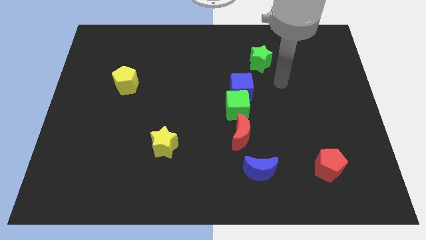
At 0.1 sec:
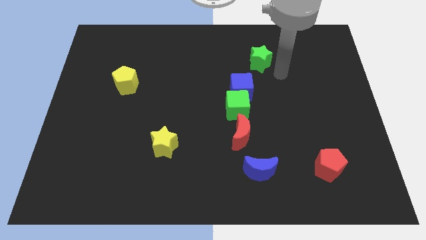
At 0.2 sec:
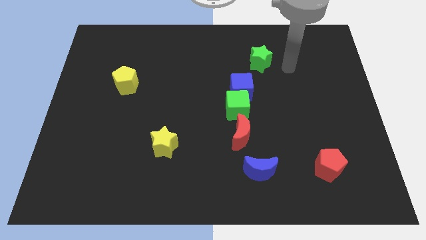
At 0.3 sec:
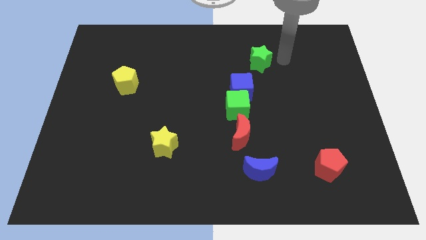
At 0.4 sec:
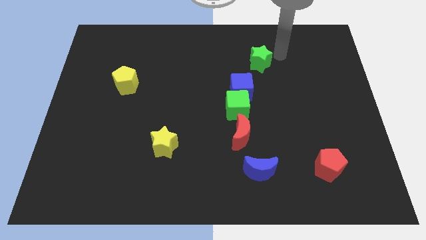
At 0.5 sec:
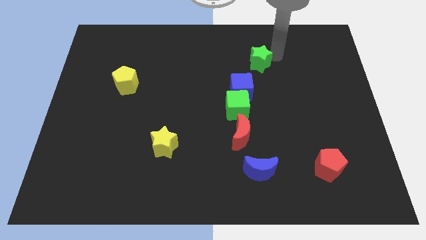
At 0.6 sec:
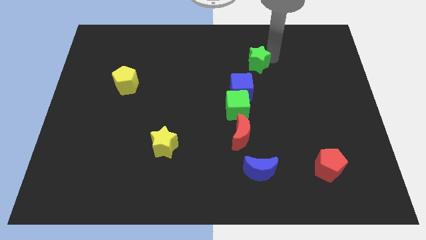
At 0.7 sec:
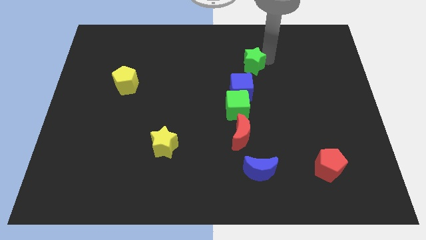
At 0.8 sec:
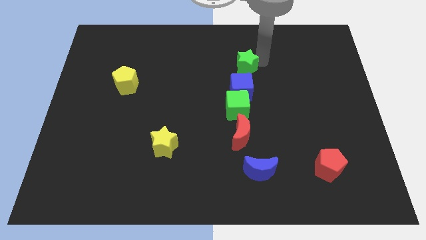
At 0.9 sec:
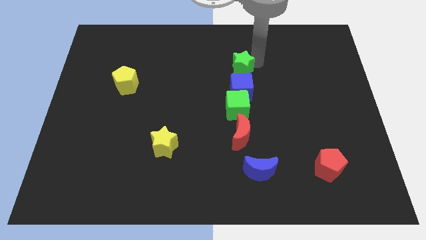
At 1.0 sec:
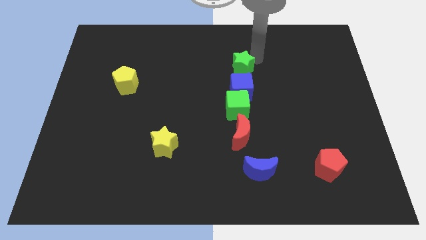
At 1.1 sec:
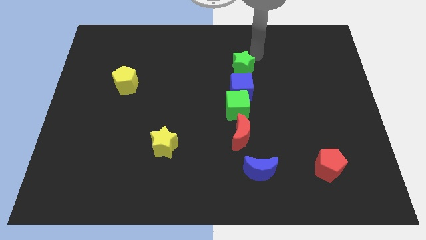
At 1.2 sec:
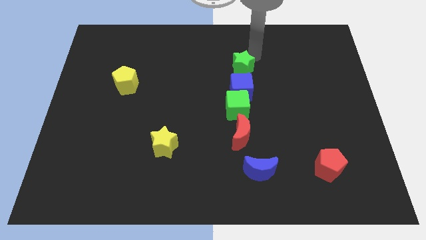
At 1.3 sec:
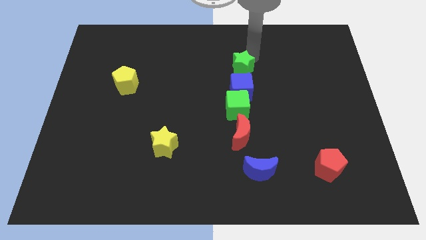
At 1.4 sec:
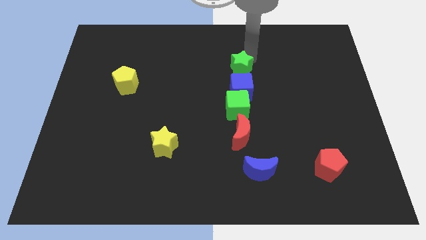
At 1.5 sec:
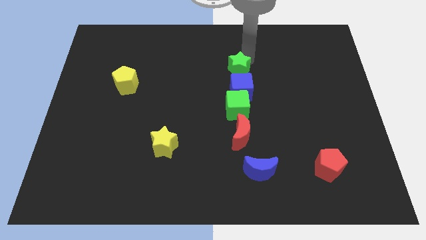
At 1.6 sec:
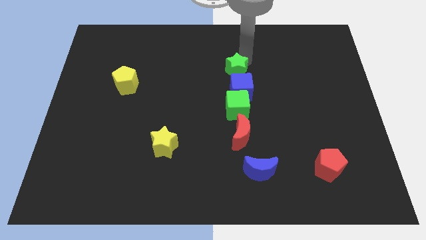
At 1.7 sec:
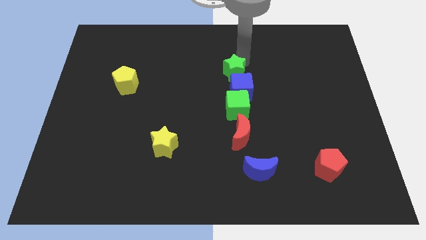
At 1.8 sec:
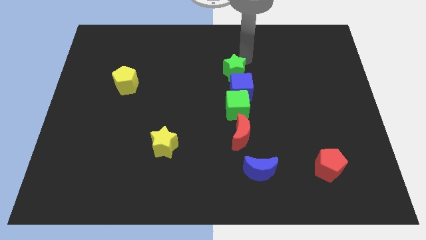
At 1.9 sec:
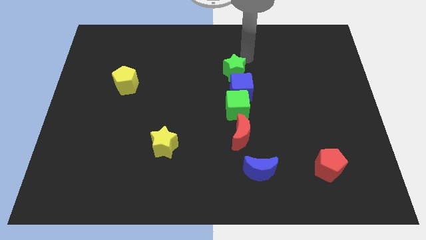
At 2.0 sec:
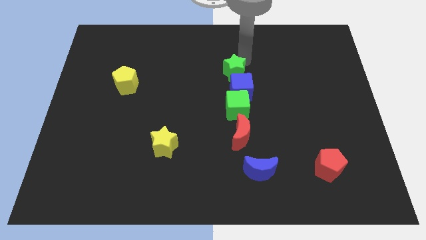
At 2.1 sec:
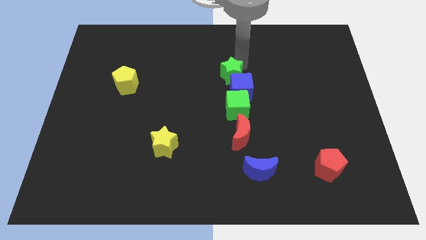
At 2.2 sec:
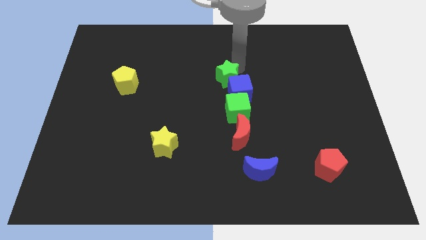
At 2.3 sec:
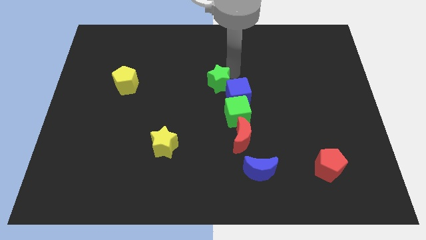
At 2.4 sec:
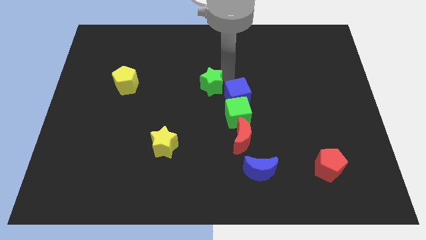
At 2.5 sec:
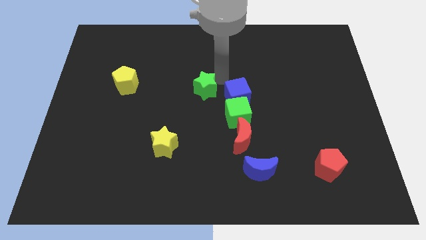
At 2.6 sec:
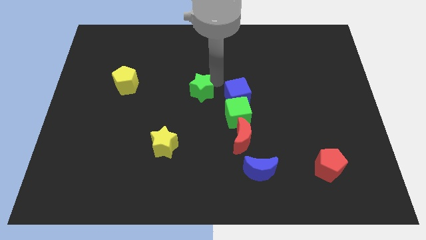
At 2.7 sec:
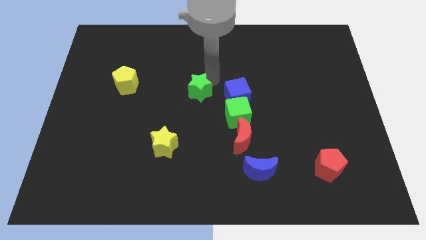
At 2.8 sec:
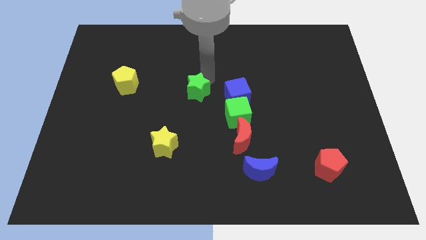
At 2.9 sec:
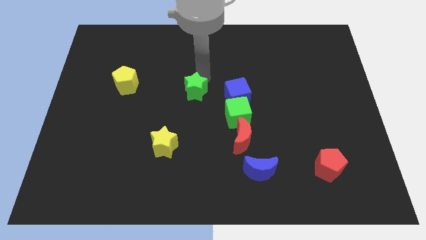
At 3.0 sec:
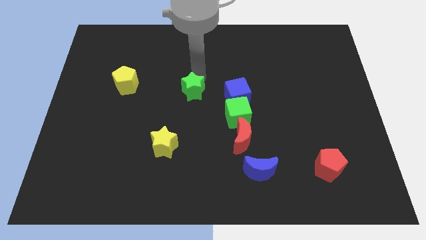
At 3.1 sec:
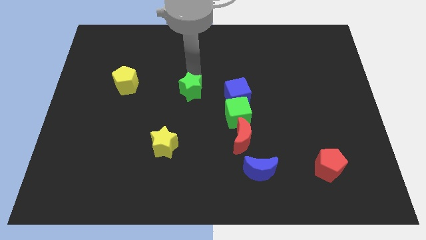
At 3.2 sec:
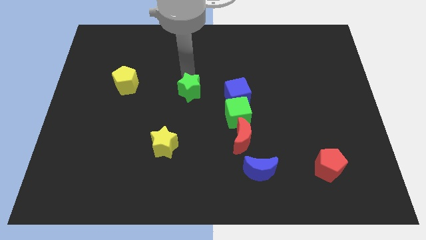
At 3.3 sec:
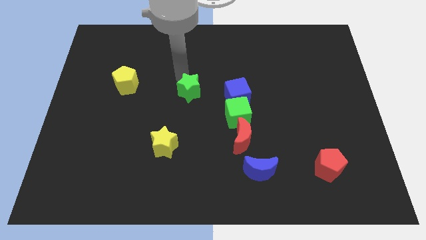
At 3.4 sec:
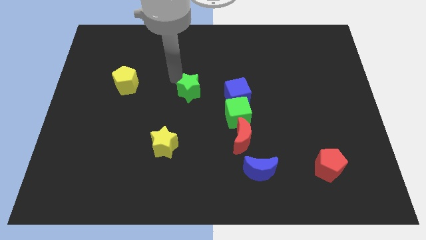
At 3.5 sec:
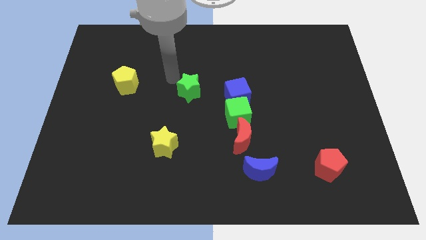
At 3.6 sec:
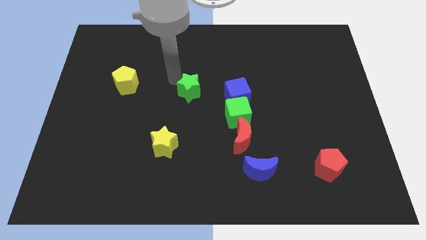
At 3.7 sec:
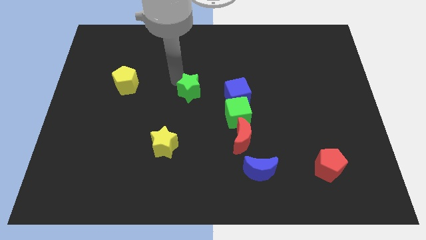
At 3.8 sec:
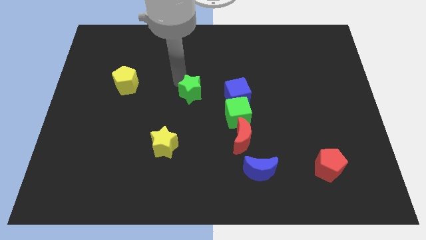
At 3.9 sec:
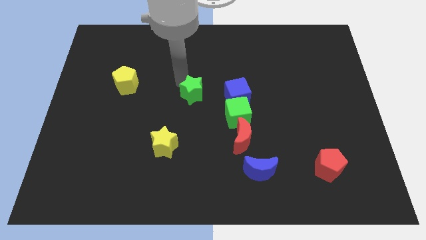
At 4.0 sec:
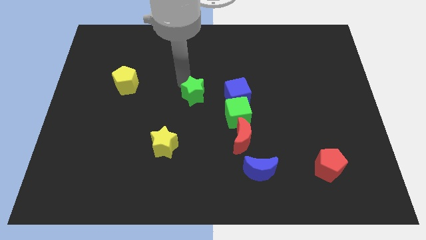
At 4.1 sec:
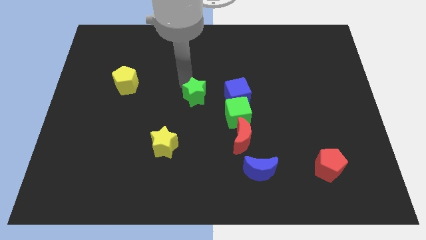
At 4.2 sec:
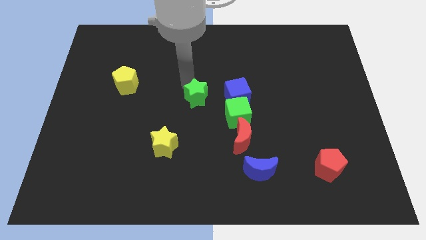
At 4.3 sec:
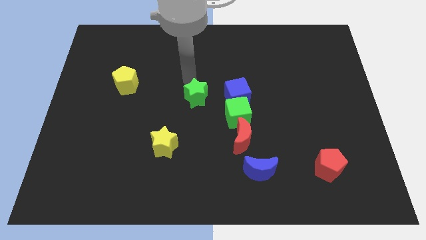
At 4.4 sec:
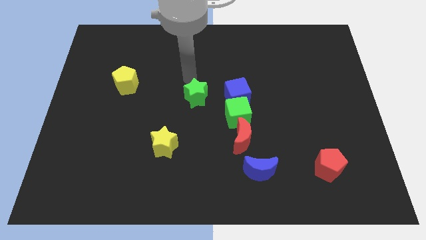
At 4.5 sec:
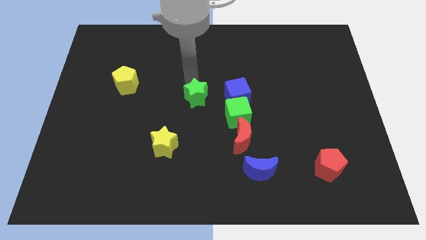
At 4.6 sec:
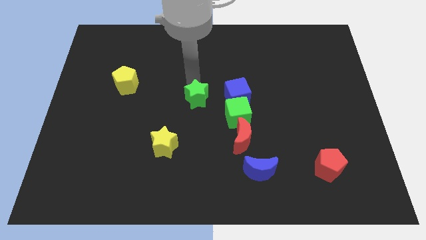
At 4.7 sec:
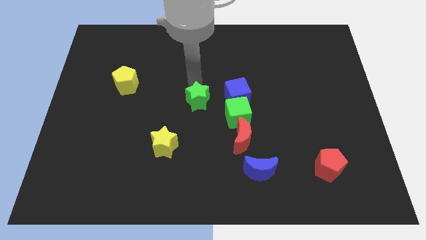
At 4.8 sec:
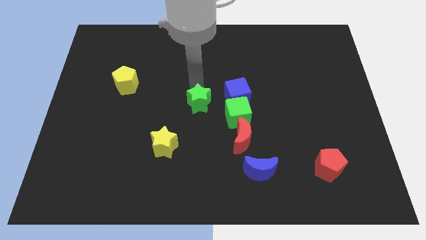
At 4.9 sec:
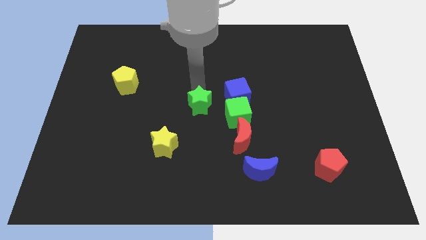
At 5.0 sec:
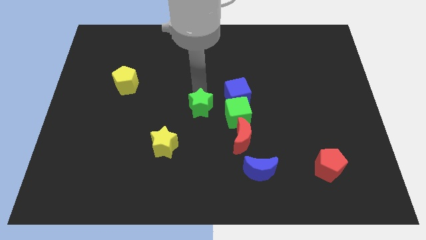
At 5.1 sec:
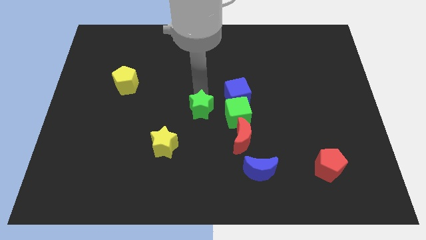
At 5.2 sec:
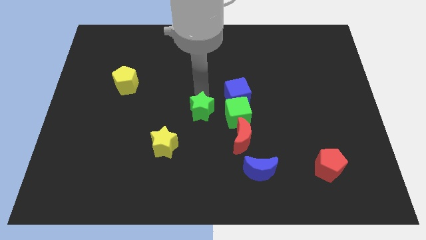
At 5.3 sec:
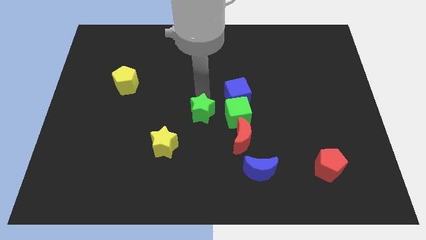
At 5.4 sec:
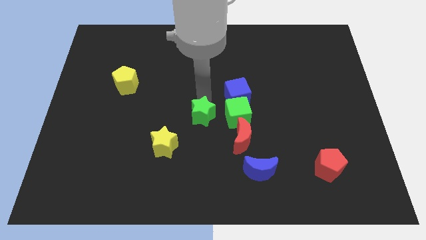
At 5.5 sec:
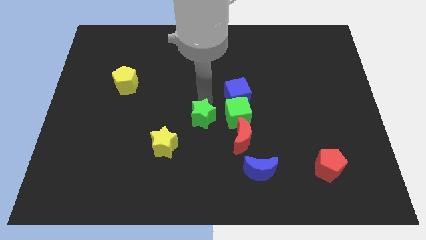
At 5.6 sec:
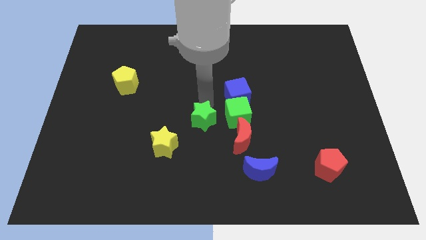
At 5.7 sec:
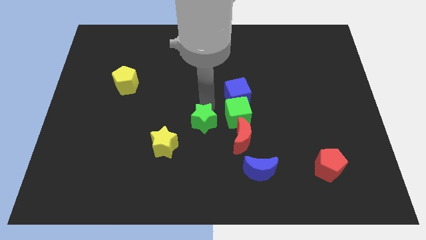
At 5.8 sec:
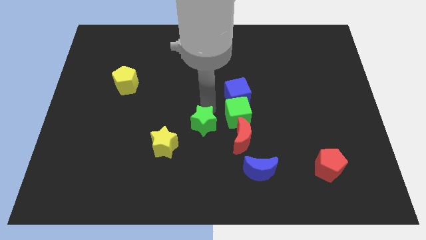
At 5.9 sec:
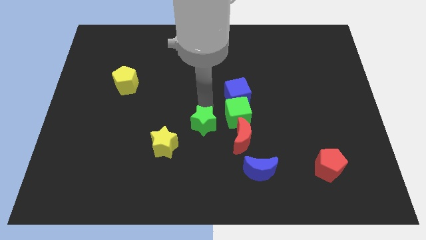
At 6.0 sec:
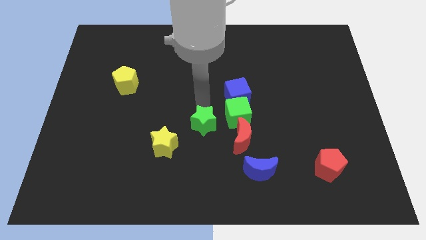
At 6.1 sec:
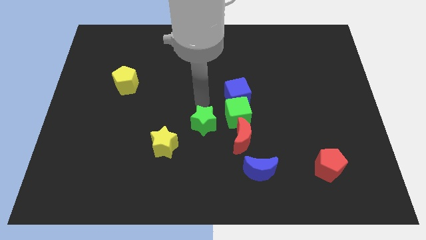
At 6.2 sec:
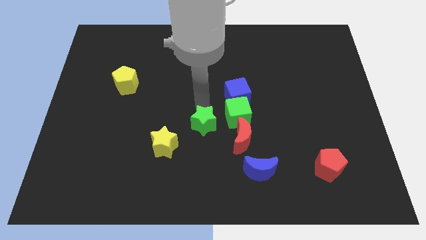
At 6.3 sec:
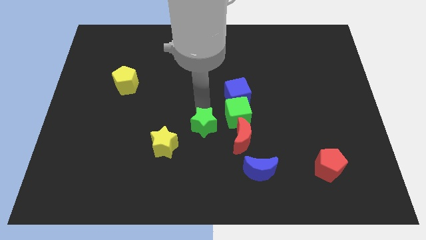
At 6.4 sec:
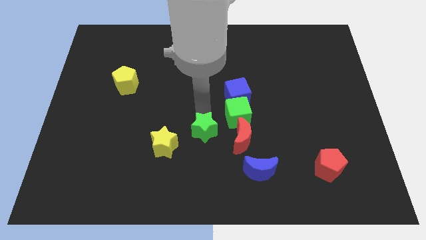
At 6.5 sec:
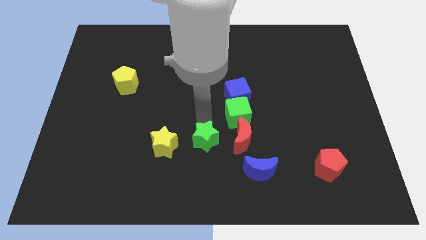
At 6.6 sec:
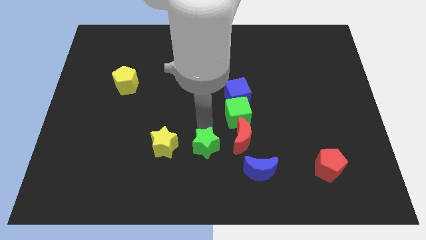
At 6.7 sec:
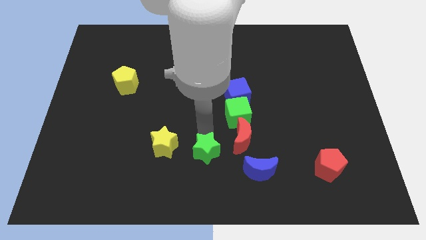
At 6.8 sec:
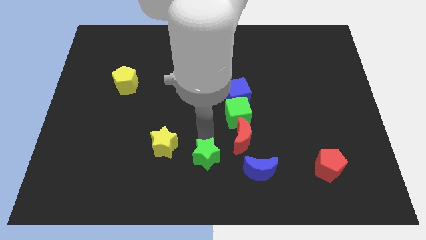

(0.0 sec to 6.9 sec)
slide the green star to the bottom
